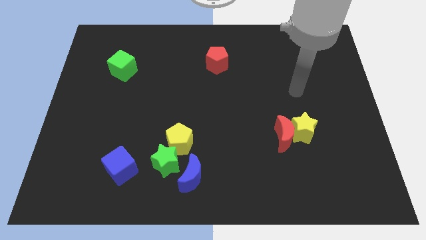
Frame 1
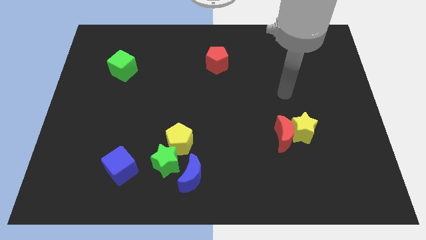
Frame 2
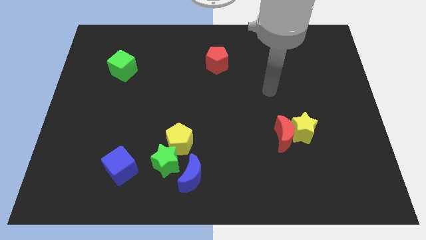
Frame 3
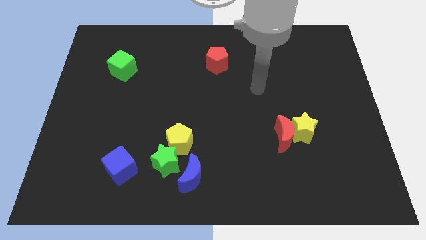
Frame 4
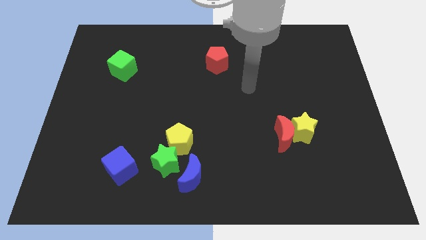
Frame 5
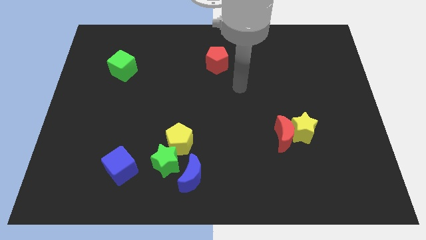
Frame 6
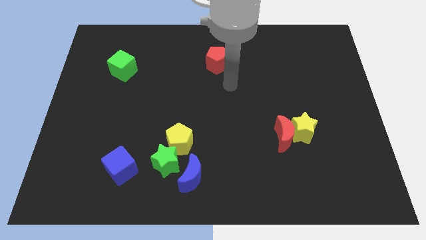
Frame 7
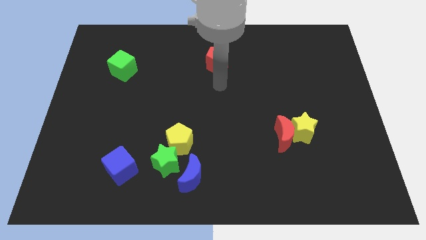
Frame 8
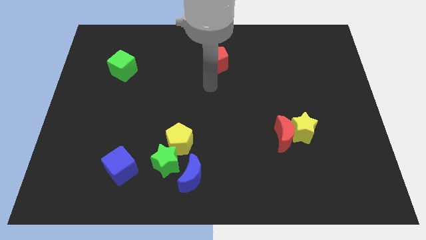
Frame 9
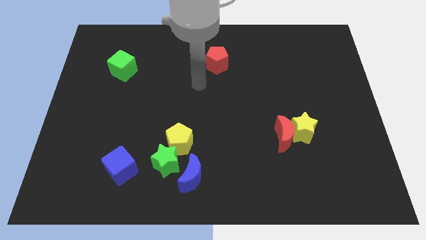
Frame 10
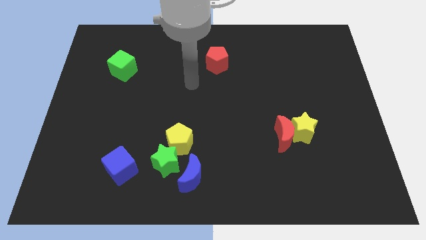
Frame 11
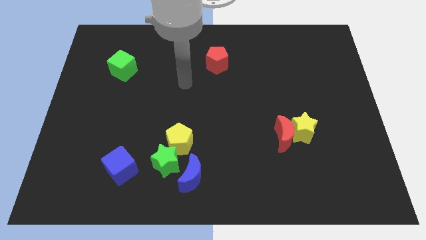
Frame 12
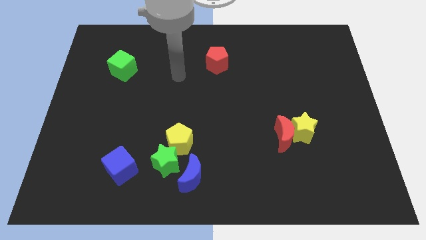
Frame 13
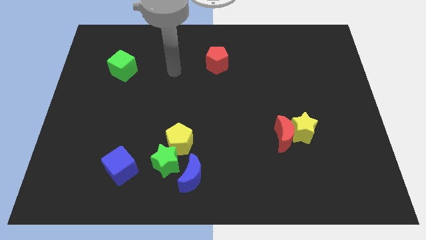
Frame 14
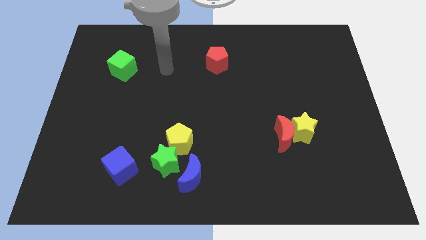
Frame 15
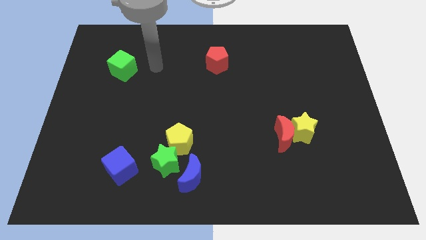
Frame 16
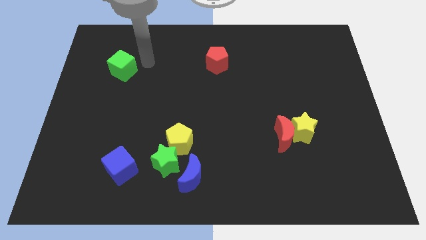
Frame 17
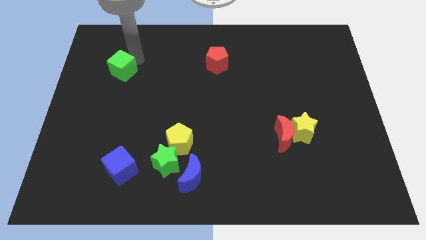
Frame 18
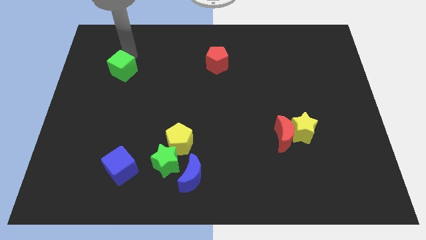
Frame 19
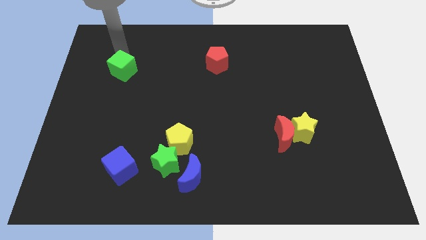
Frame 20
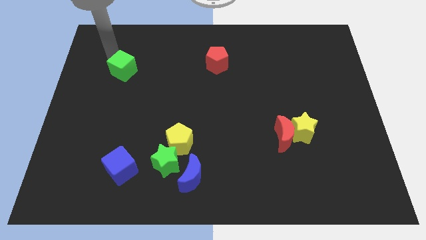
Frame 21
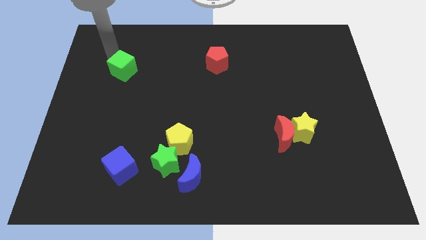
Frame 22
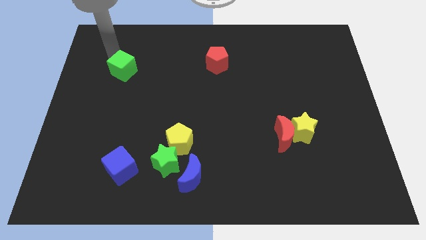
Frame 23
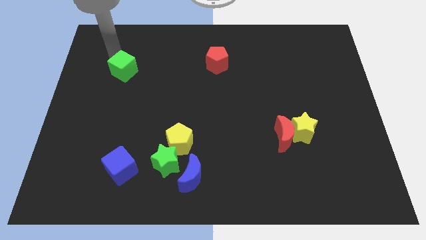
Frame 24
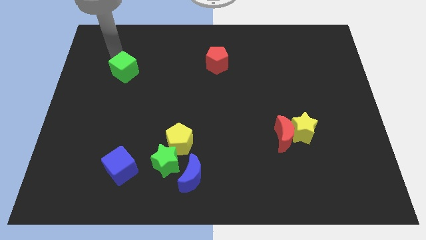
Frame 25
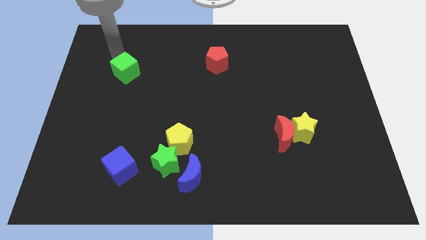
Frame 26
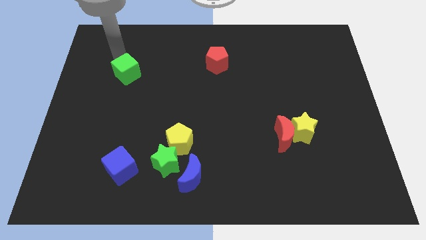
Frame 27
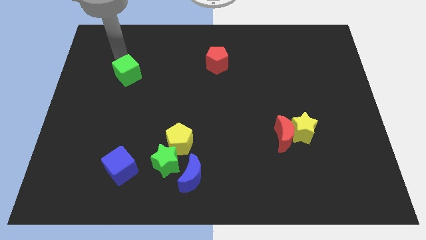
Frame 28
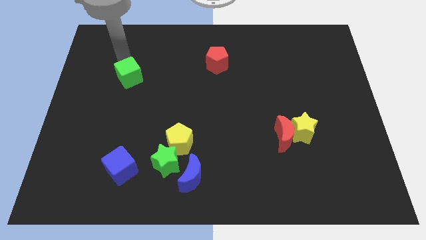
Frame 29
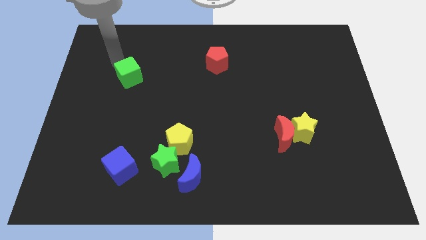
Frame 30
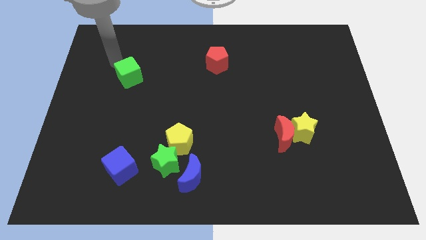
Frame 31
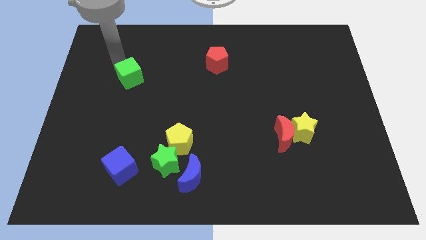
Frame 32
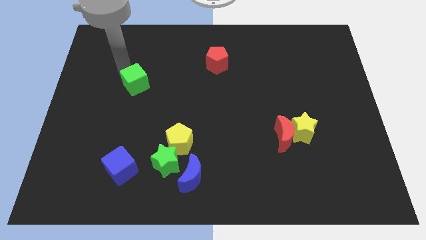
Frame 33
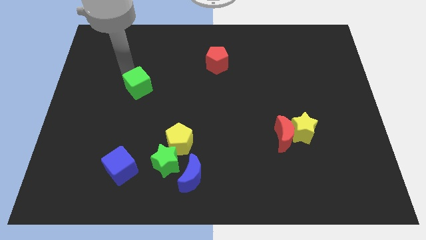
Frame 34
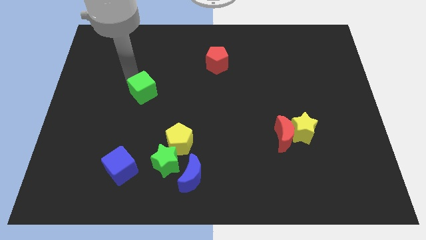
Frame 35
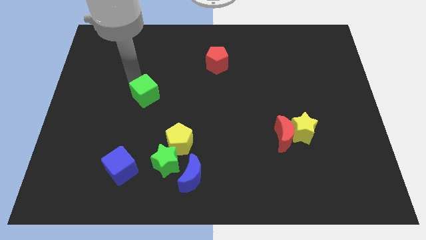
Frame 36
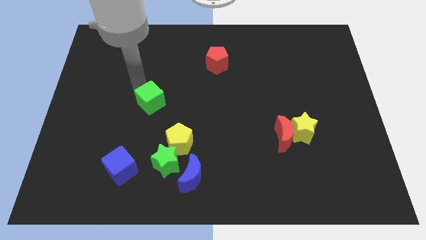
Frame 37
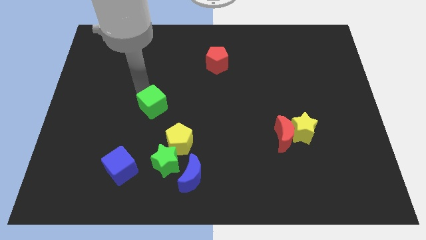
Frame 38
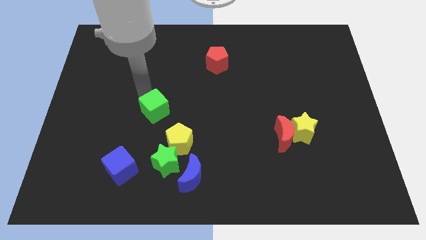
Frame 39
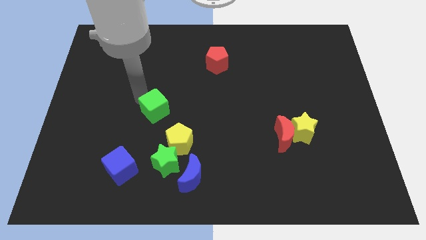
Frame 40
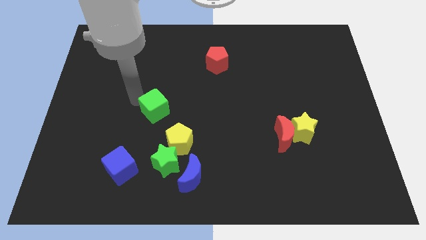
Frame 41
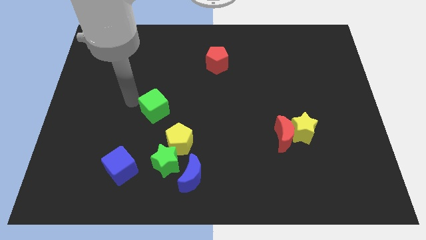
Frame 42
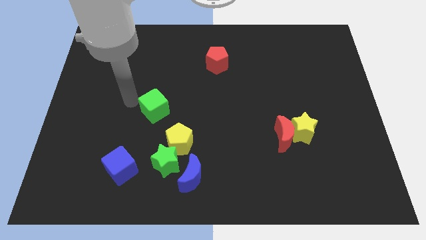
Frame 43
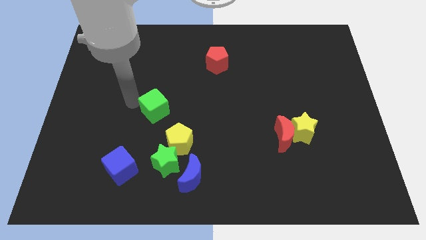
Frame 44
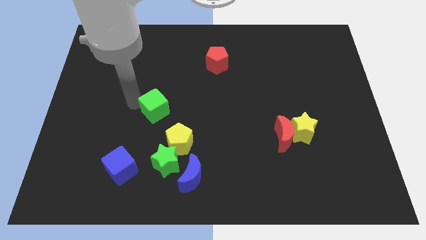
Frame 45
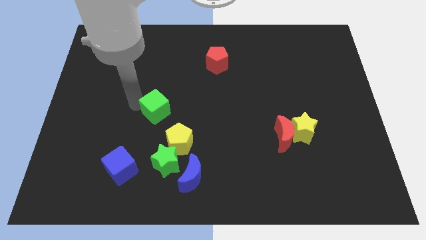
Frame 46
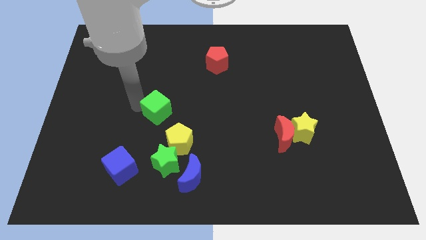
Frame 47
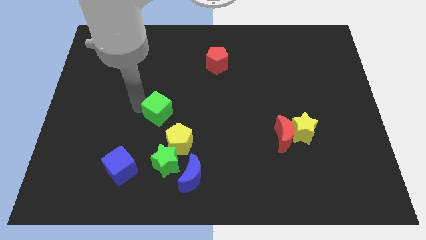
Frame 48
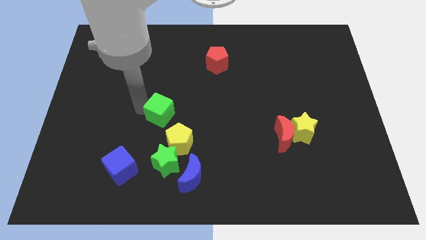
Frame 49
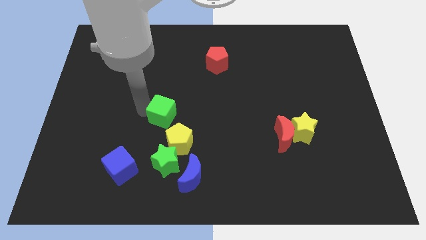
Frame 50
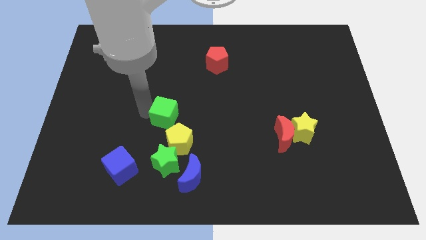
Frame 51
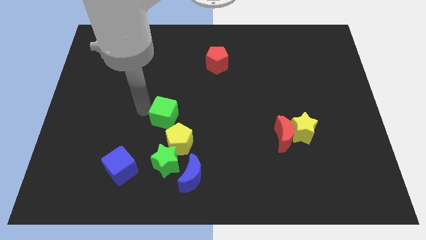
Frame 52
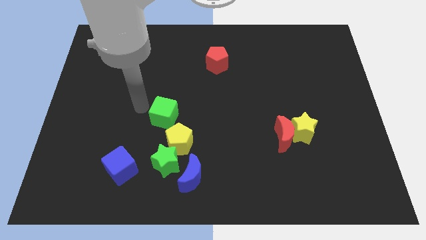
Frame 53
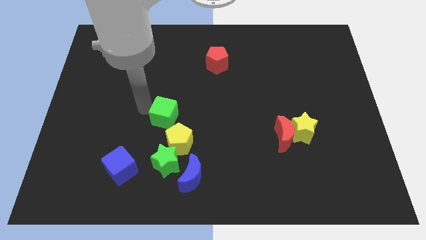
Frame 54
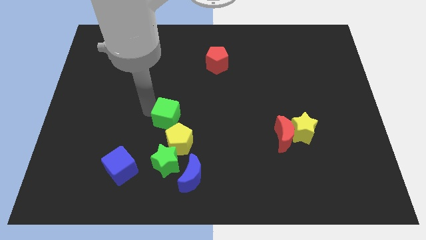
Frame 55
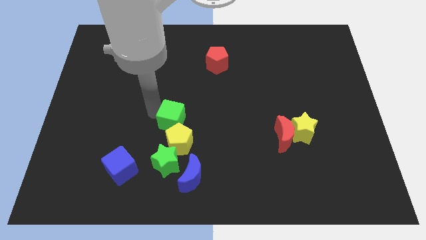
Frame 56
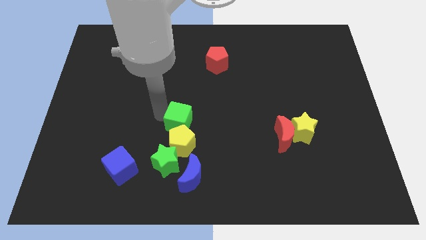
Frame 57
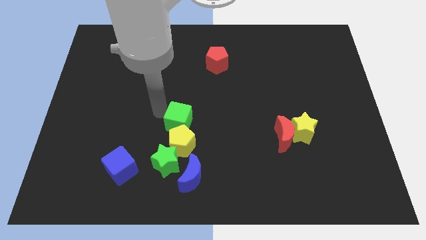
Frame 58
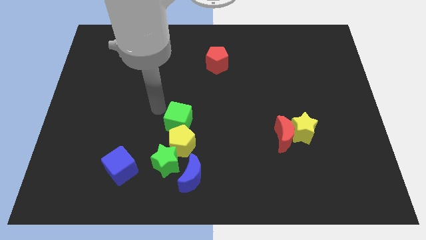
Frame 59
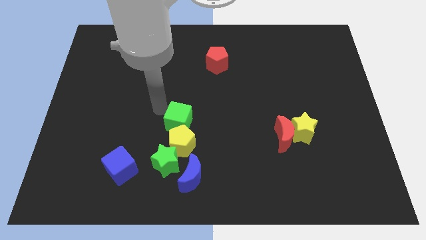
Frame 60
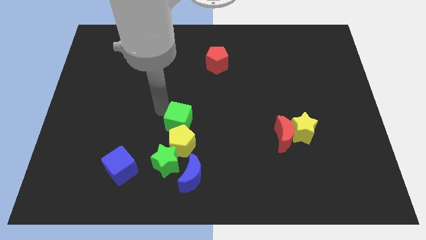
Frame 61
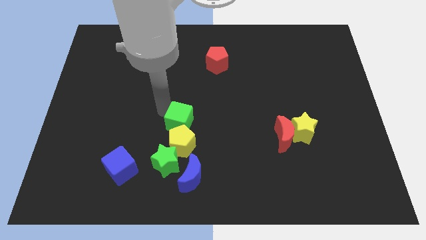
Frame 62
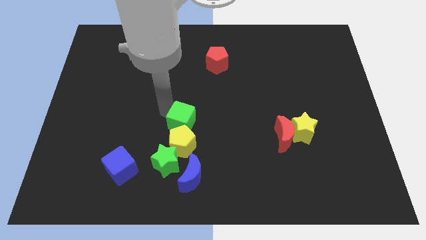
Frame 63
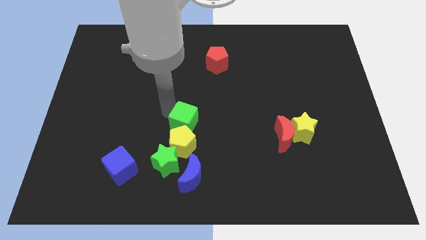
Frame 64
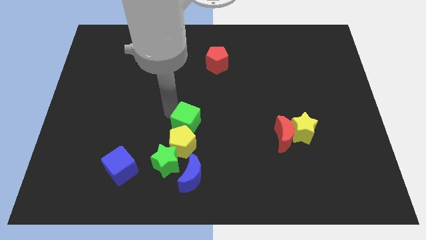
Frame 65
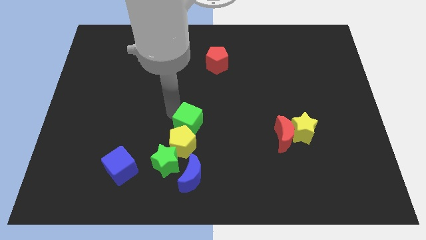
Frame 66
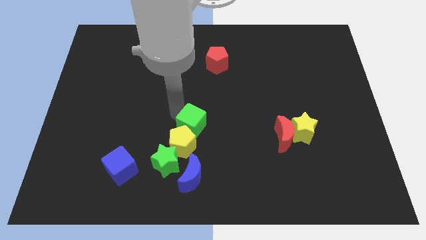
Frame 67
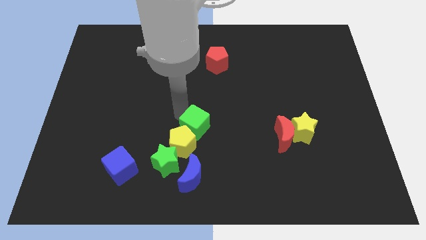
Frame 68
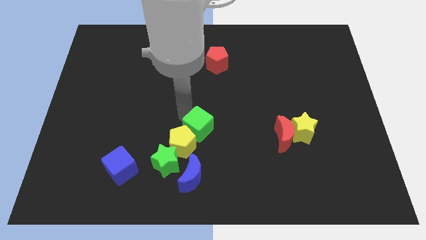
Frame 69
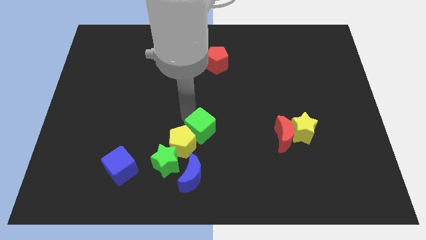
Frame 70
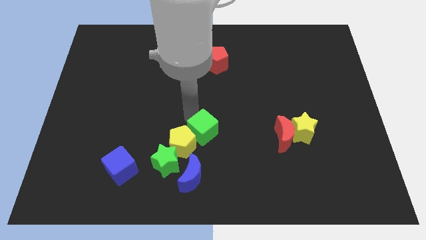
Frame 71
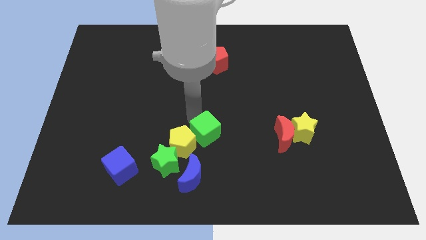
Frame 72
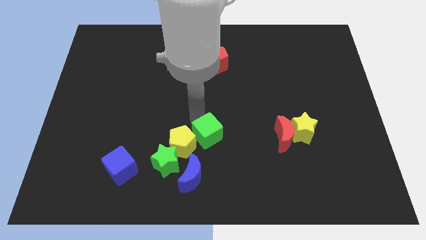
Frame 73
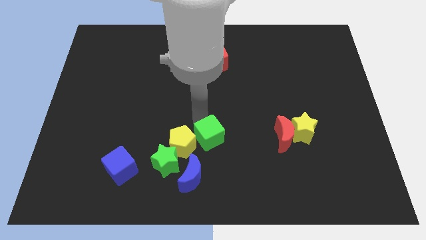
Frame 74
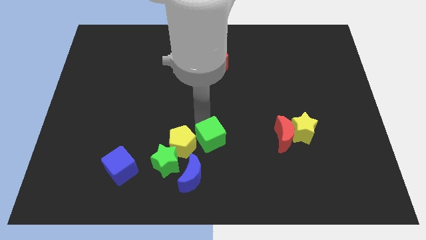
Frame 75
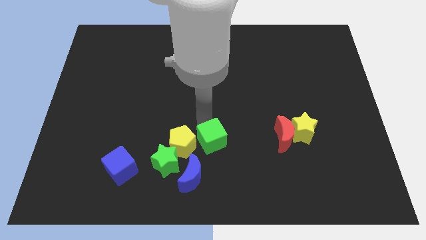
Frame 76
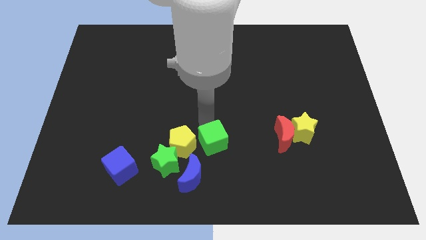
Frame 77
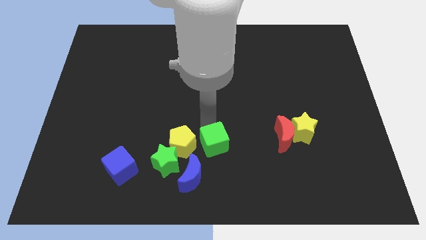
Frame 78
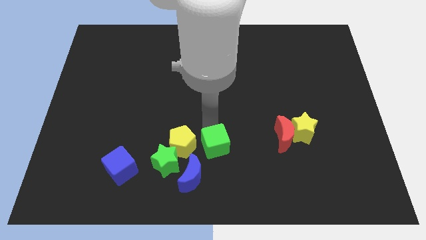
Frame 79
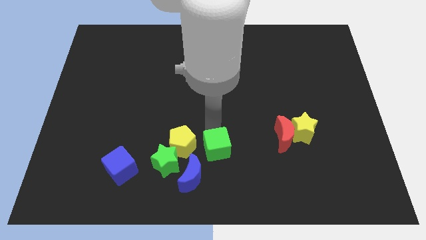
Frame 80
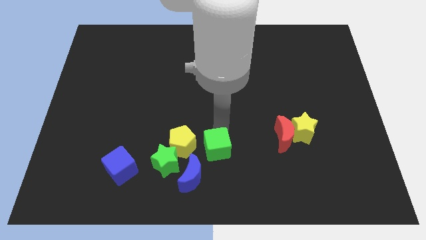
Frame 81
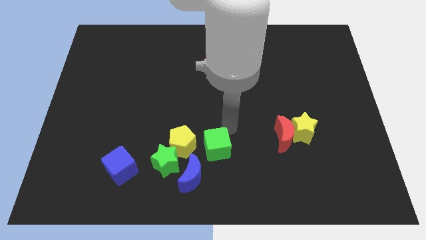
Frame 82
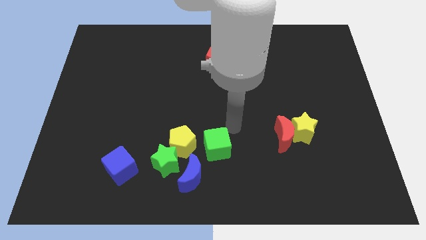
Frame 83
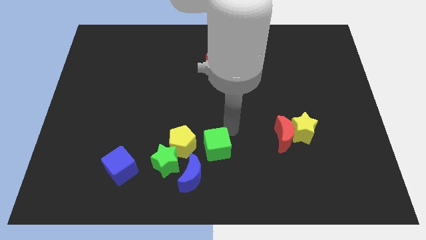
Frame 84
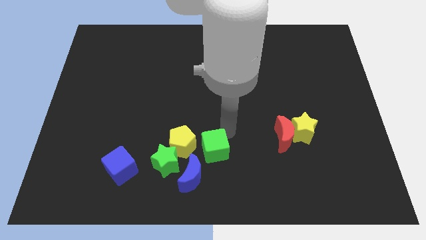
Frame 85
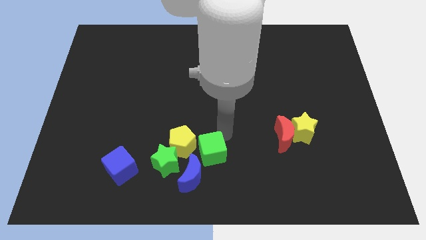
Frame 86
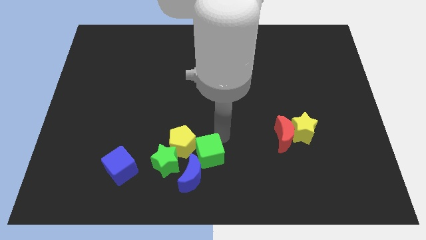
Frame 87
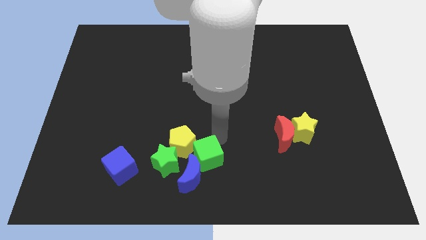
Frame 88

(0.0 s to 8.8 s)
move the green cube close to the blue moon

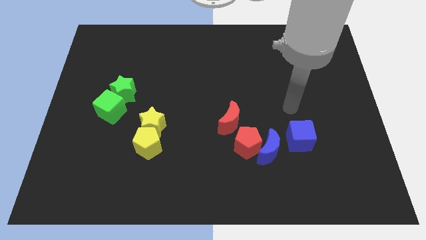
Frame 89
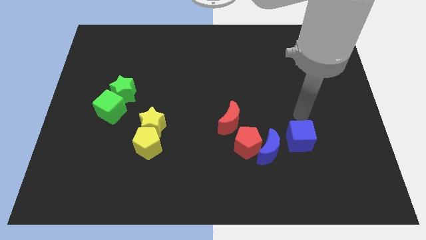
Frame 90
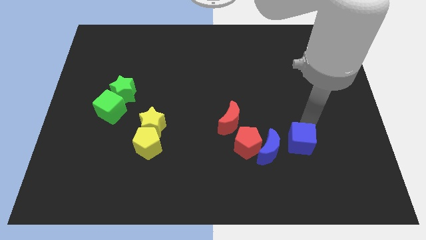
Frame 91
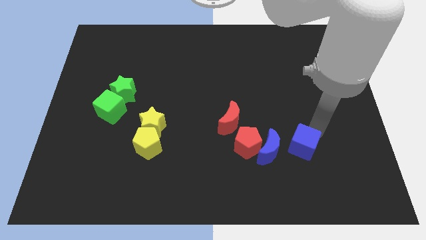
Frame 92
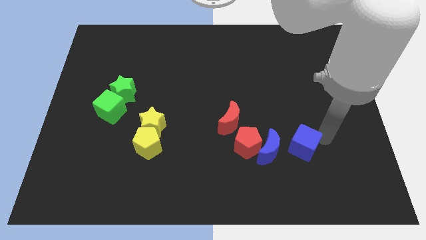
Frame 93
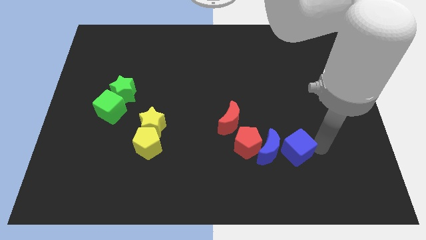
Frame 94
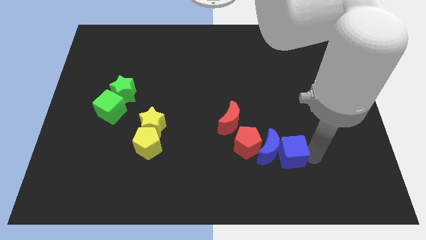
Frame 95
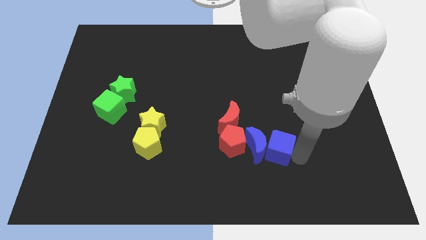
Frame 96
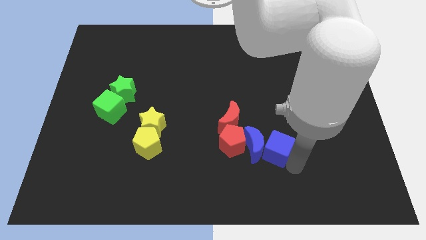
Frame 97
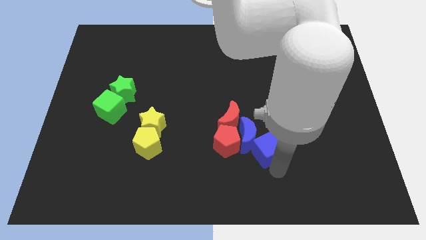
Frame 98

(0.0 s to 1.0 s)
push the blue moon to the red moon
